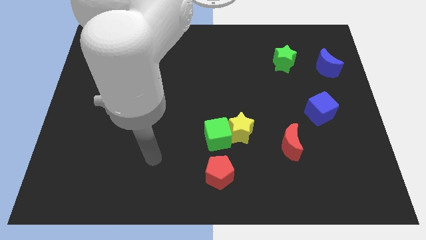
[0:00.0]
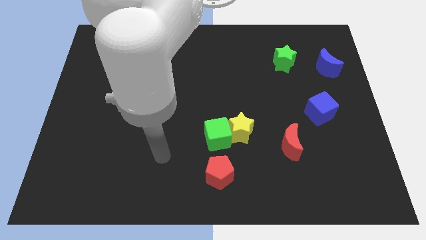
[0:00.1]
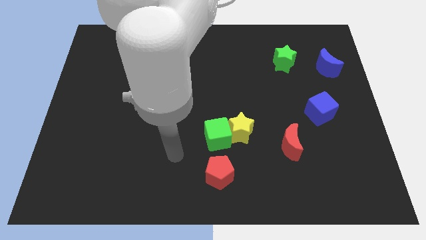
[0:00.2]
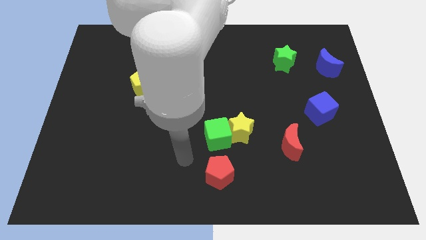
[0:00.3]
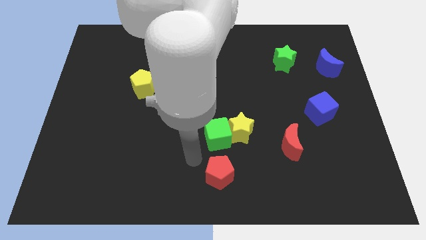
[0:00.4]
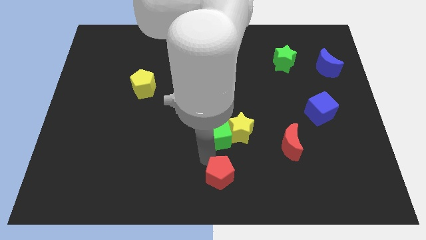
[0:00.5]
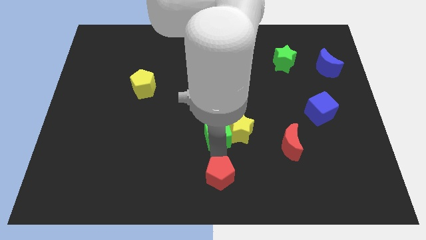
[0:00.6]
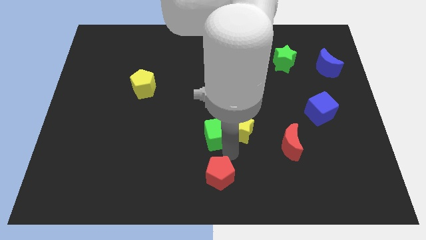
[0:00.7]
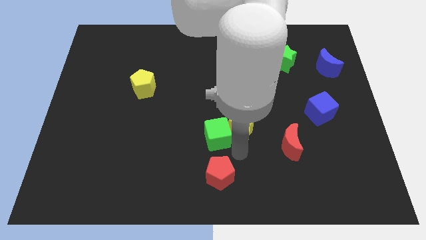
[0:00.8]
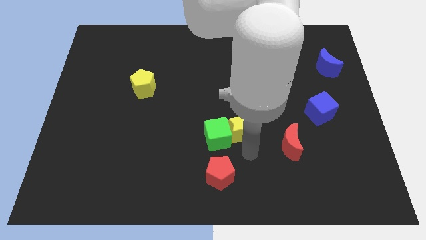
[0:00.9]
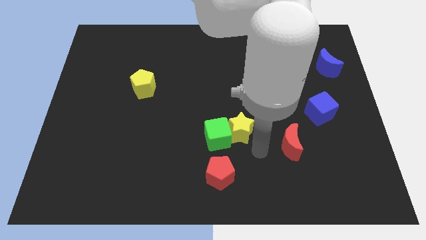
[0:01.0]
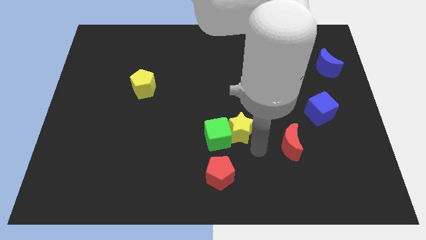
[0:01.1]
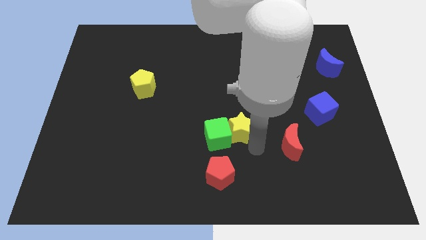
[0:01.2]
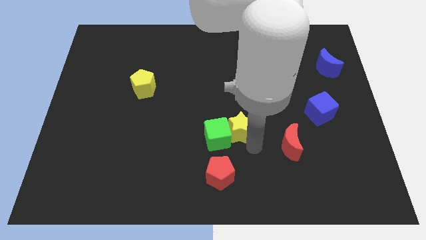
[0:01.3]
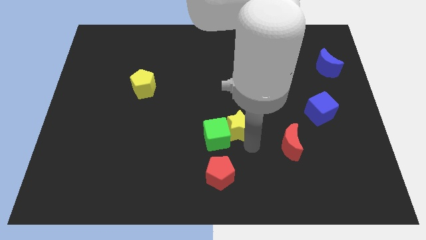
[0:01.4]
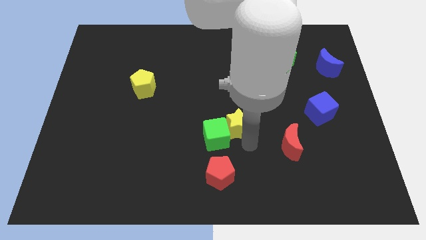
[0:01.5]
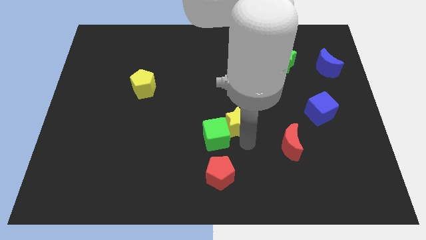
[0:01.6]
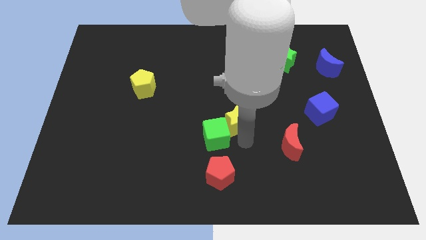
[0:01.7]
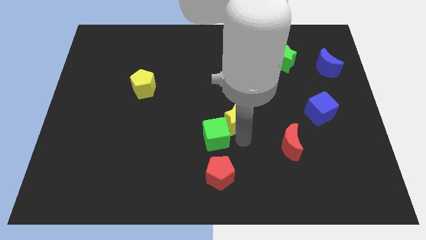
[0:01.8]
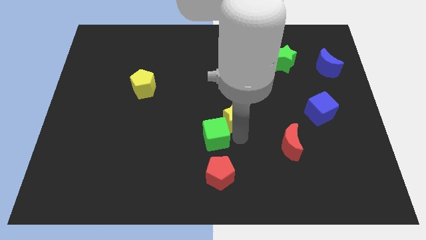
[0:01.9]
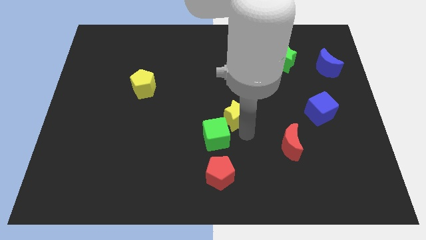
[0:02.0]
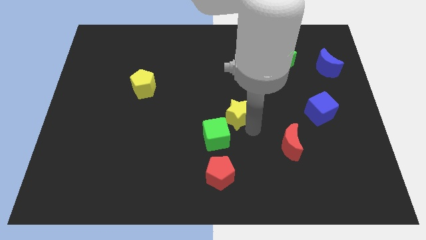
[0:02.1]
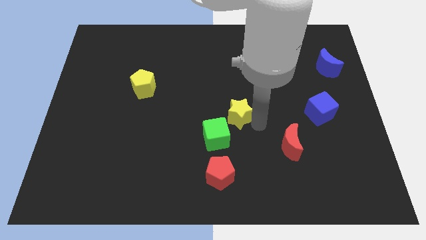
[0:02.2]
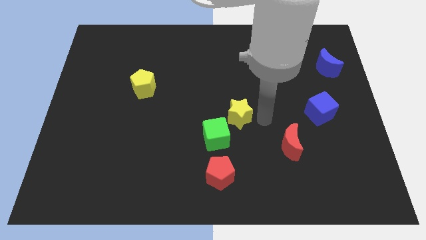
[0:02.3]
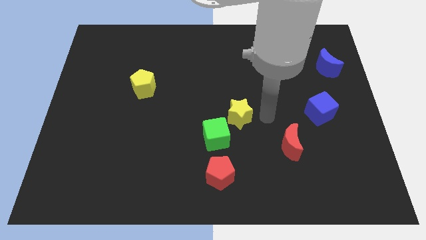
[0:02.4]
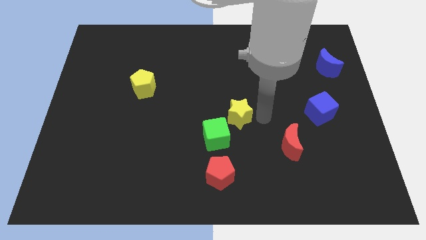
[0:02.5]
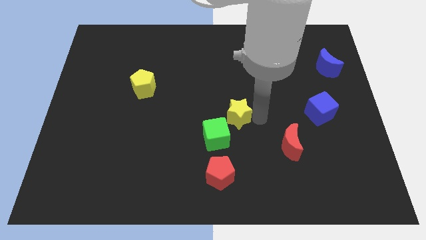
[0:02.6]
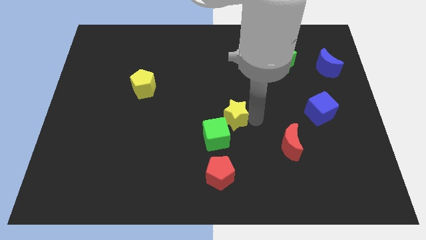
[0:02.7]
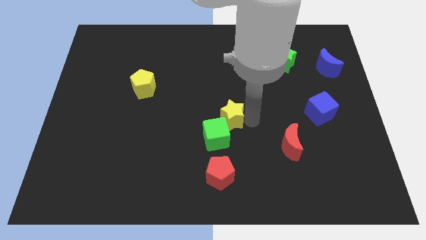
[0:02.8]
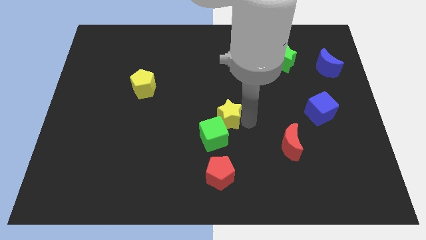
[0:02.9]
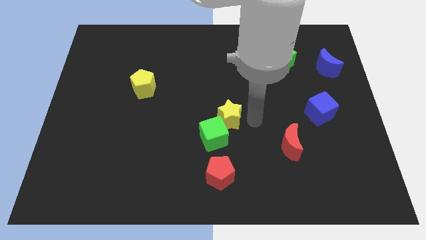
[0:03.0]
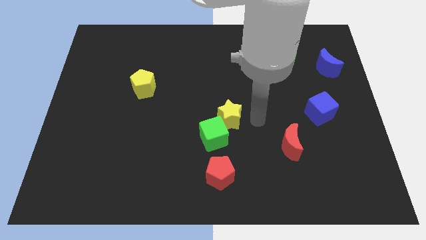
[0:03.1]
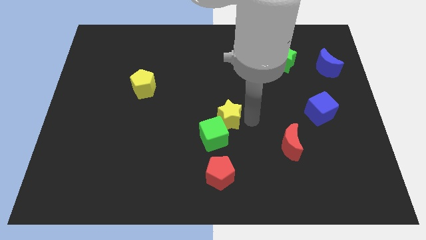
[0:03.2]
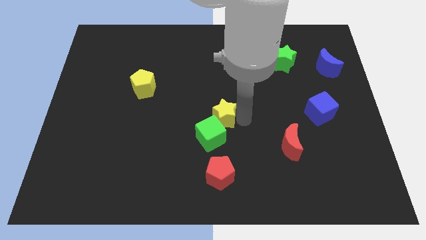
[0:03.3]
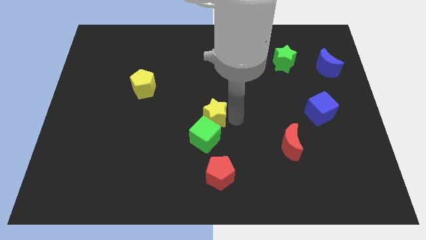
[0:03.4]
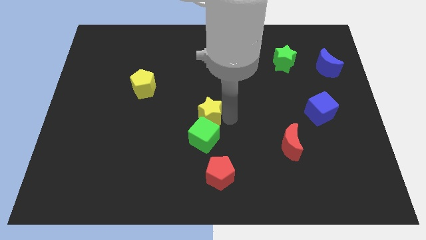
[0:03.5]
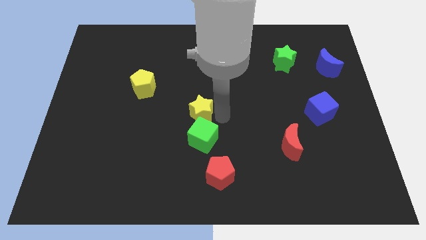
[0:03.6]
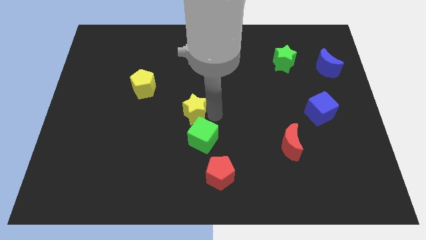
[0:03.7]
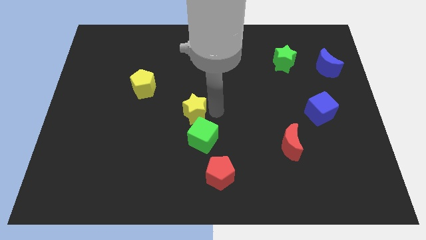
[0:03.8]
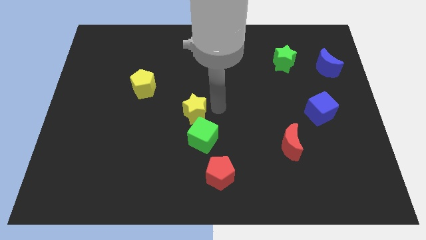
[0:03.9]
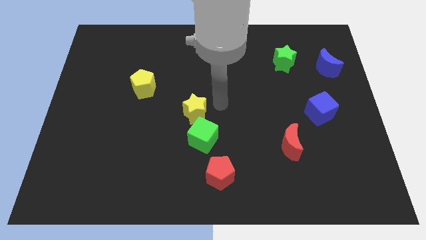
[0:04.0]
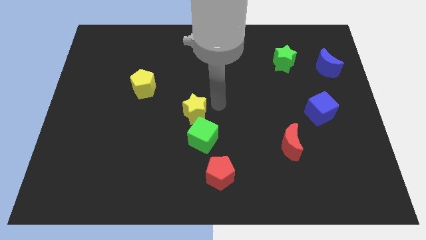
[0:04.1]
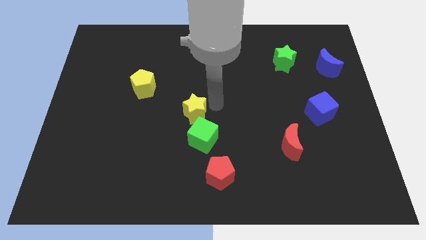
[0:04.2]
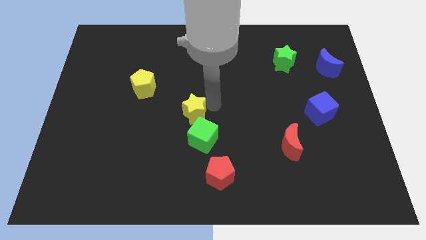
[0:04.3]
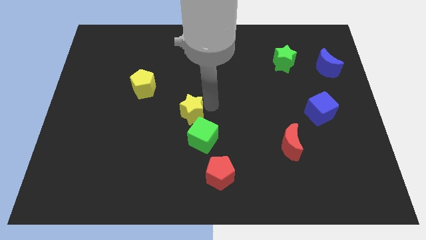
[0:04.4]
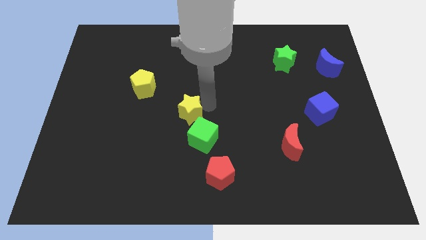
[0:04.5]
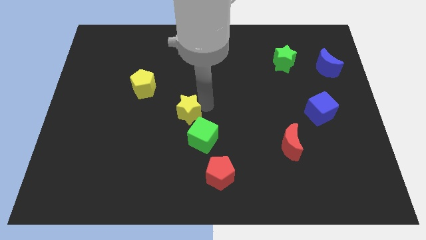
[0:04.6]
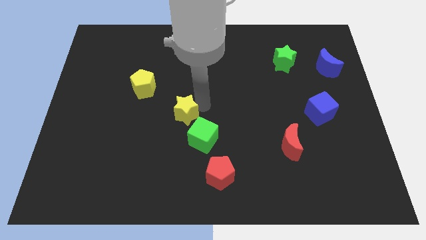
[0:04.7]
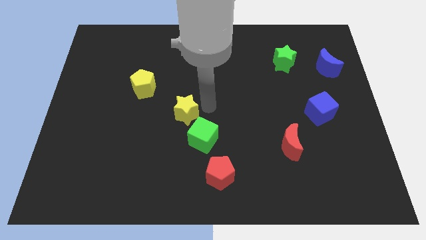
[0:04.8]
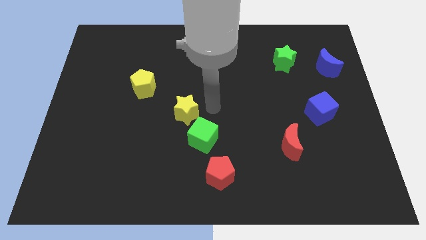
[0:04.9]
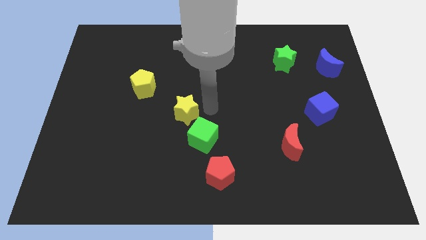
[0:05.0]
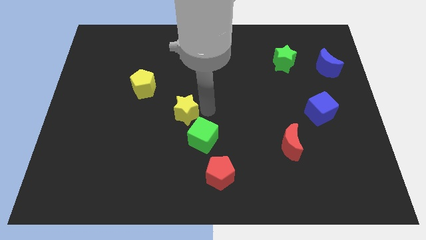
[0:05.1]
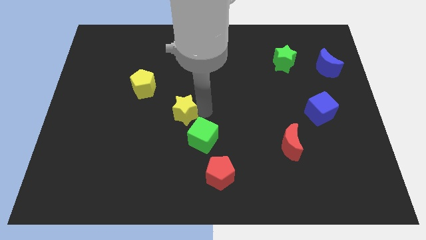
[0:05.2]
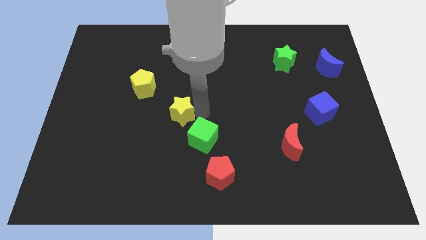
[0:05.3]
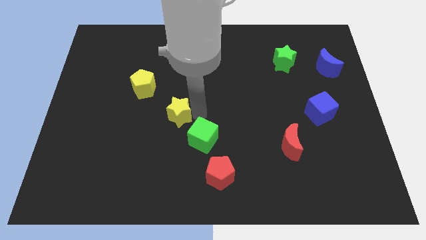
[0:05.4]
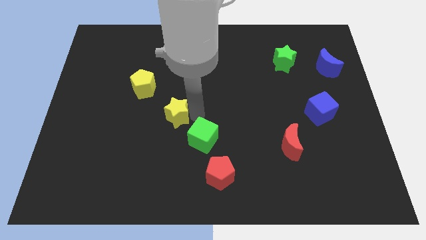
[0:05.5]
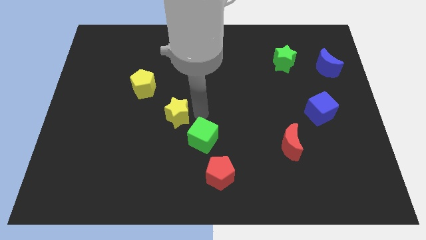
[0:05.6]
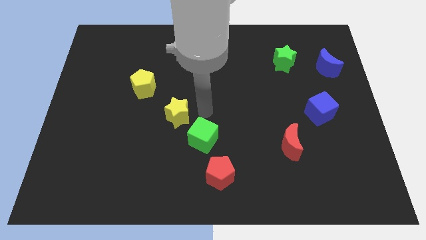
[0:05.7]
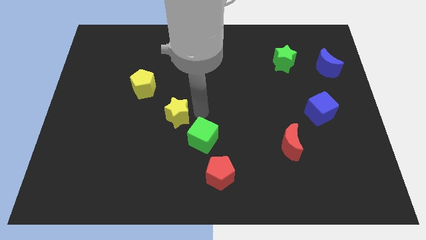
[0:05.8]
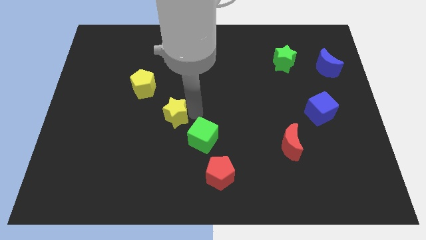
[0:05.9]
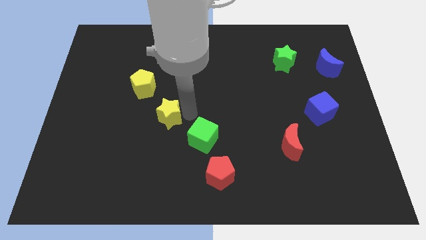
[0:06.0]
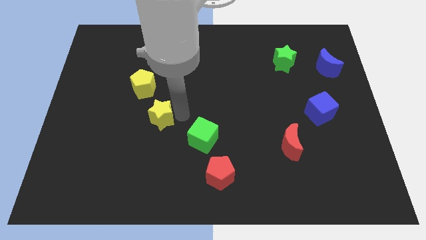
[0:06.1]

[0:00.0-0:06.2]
move the yellow star to the bottom side of the yellow pentagon

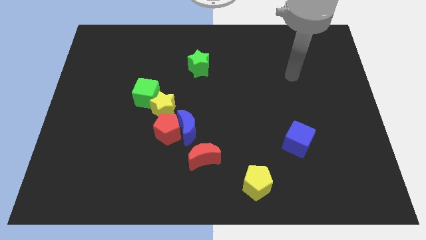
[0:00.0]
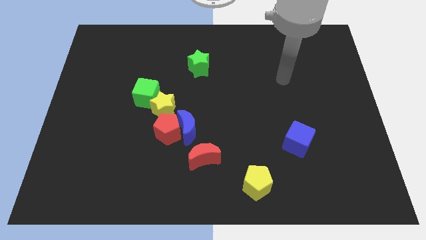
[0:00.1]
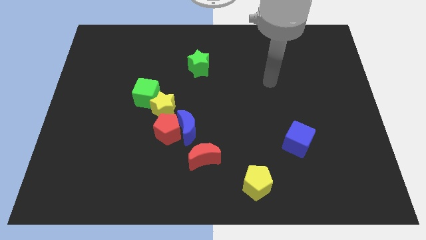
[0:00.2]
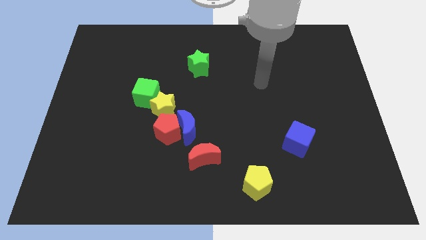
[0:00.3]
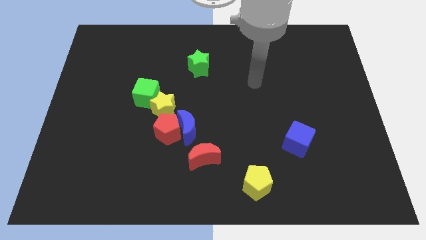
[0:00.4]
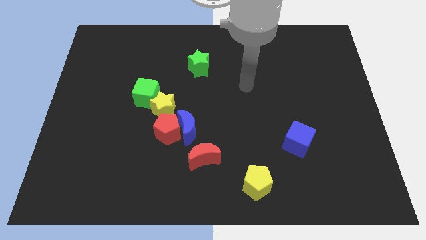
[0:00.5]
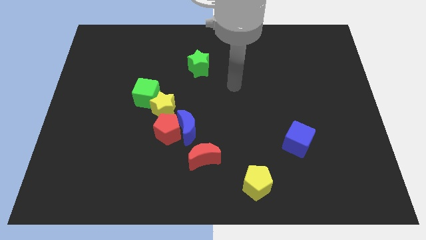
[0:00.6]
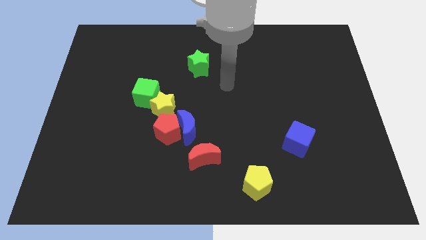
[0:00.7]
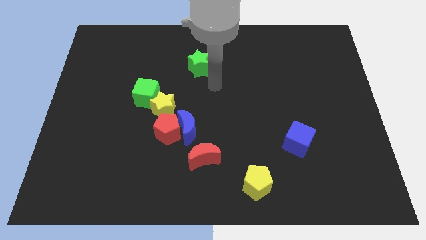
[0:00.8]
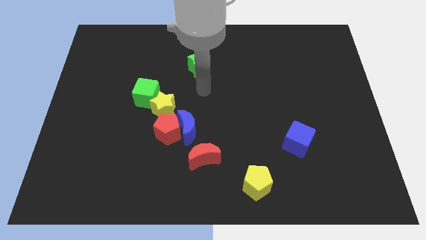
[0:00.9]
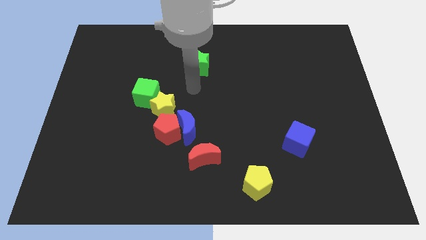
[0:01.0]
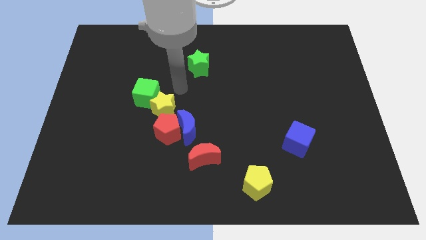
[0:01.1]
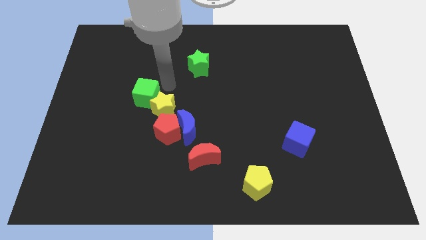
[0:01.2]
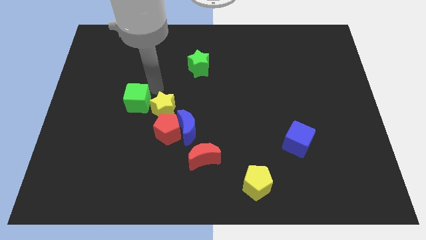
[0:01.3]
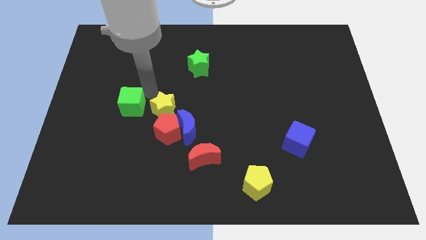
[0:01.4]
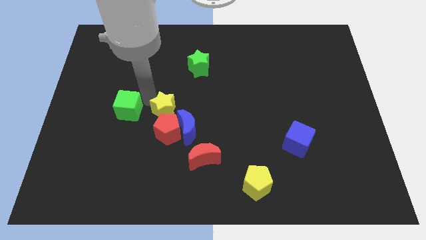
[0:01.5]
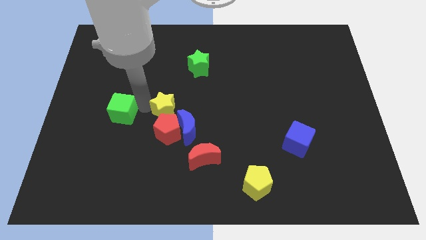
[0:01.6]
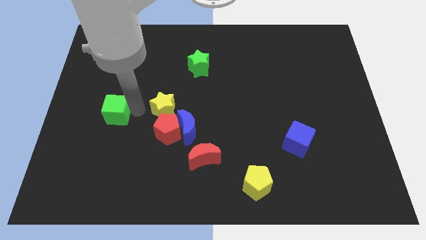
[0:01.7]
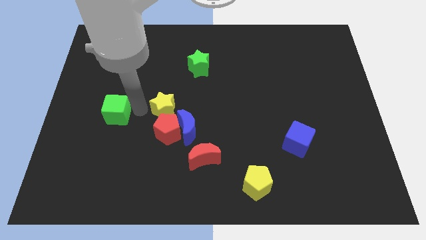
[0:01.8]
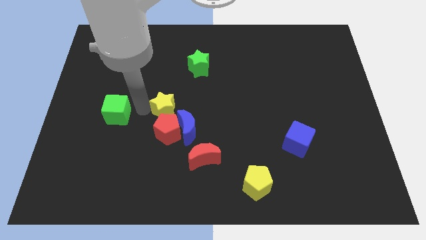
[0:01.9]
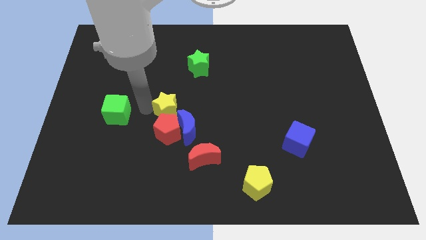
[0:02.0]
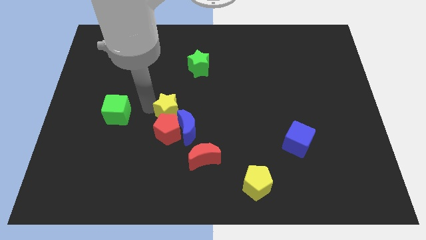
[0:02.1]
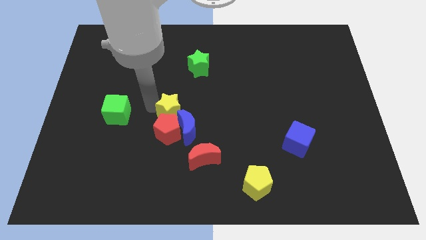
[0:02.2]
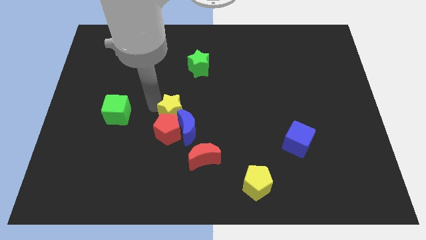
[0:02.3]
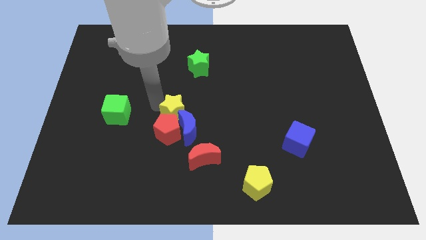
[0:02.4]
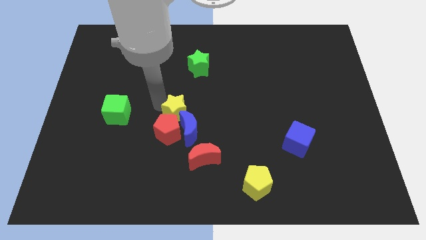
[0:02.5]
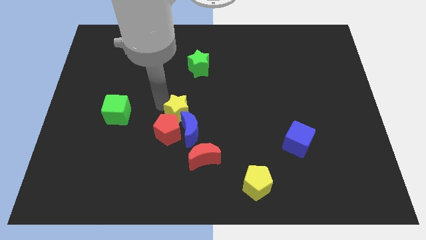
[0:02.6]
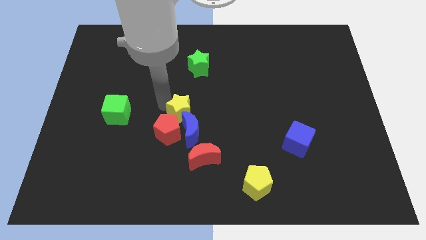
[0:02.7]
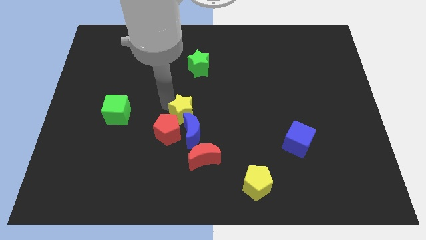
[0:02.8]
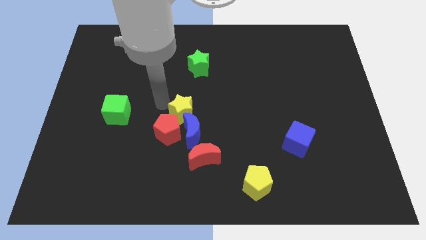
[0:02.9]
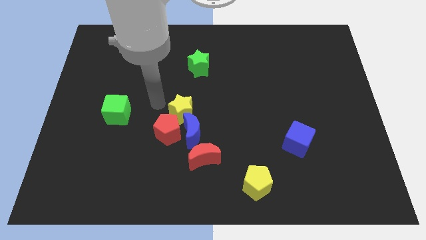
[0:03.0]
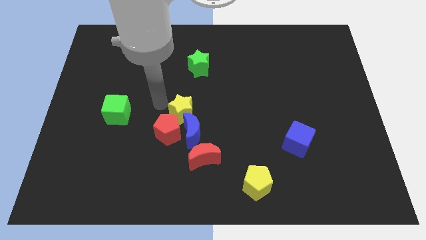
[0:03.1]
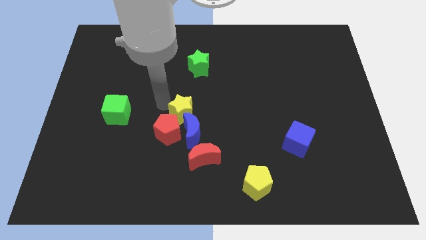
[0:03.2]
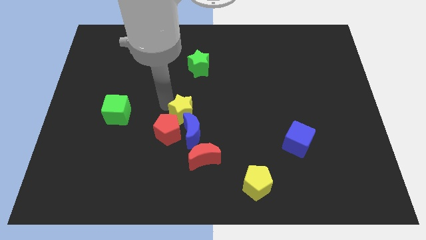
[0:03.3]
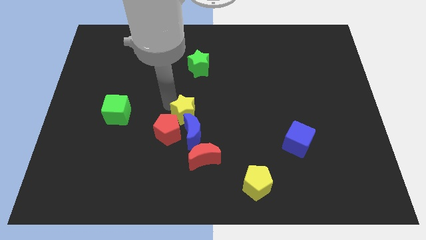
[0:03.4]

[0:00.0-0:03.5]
push the yellow star above the red moon
